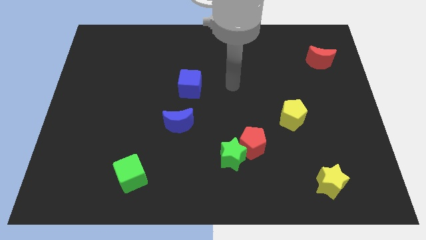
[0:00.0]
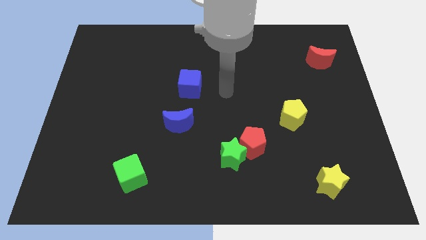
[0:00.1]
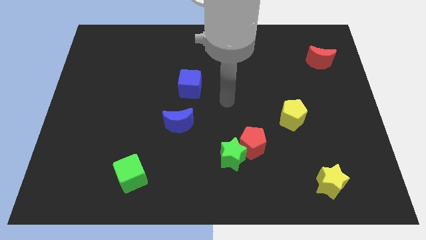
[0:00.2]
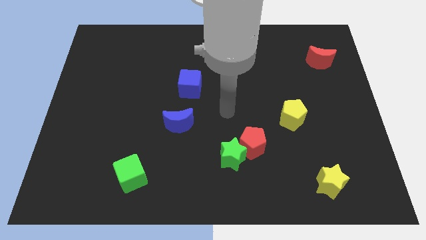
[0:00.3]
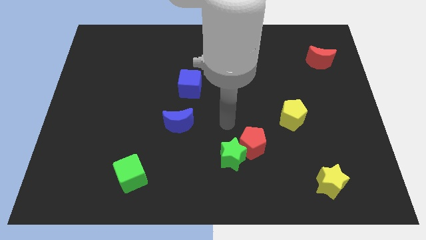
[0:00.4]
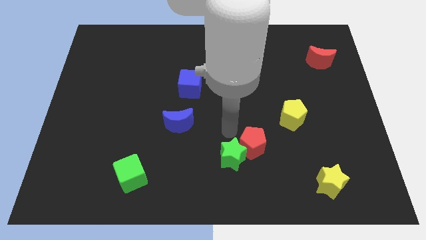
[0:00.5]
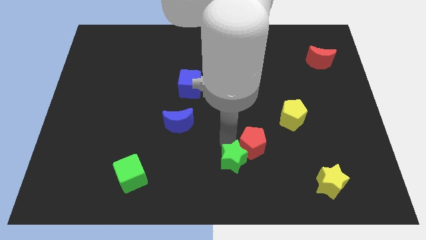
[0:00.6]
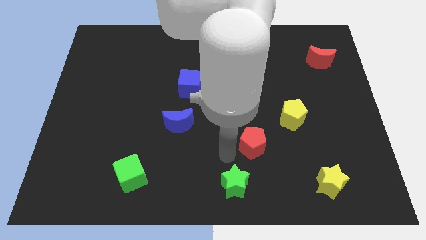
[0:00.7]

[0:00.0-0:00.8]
separate the red pentagon from the green star

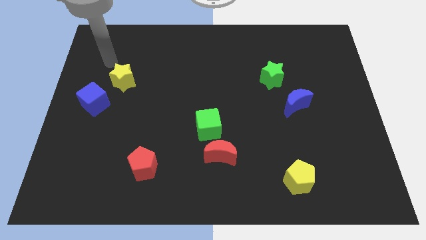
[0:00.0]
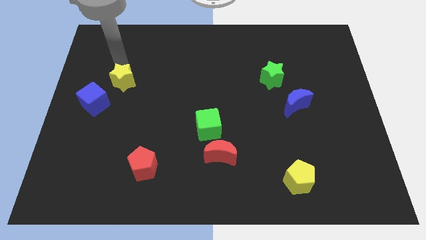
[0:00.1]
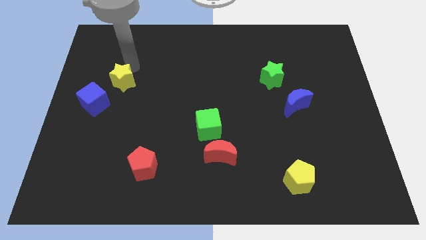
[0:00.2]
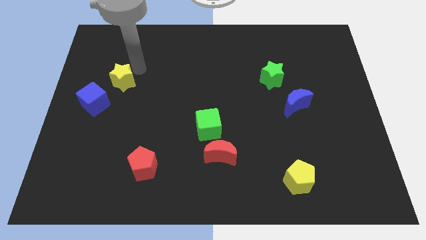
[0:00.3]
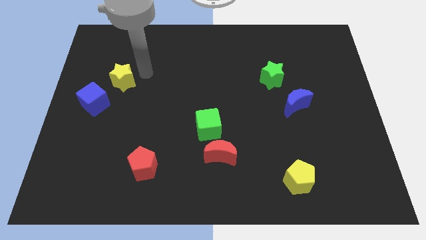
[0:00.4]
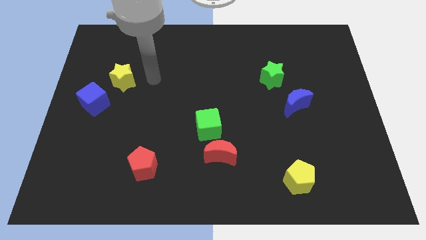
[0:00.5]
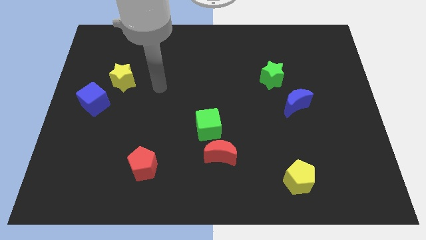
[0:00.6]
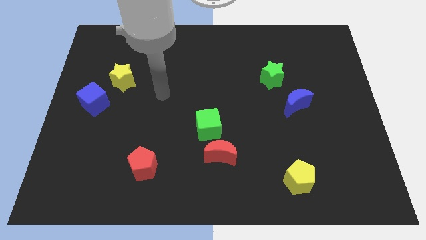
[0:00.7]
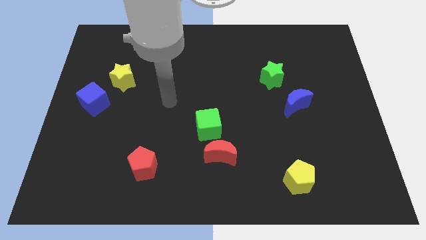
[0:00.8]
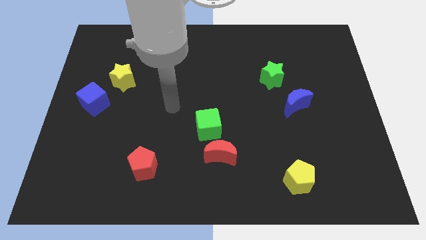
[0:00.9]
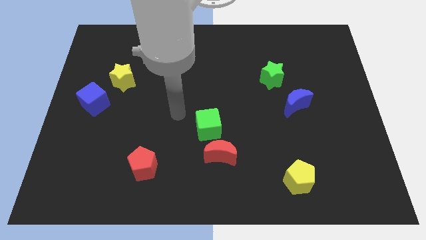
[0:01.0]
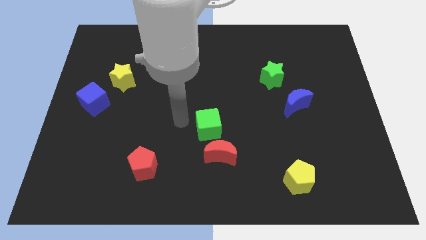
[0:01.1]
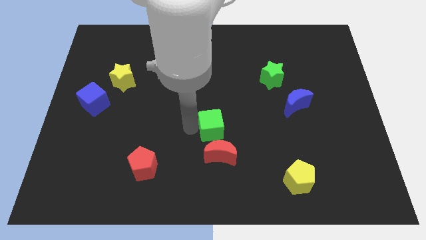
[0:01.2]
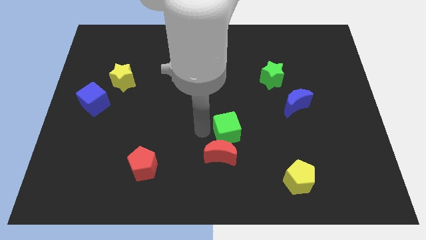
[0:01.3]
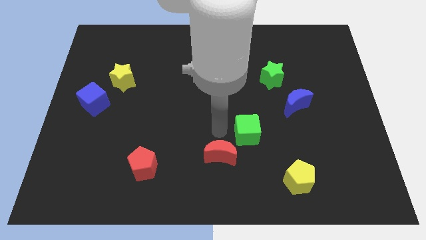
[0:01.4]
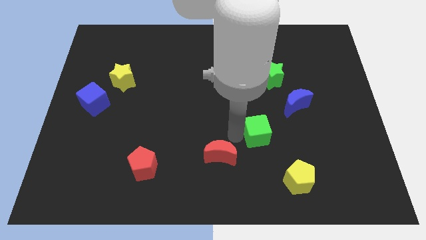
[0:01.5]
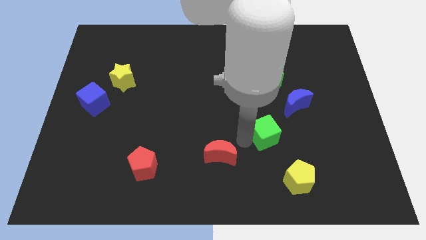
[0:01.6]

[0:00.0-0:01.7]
pull the red moon apart from the green cube

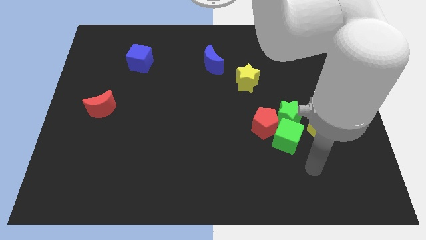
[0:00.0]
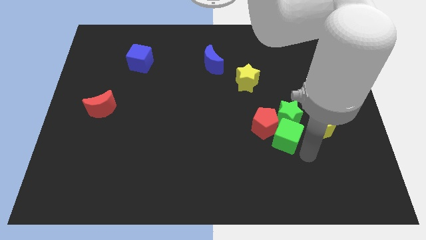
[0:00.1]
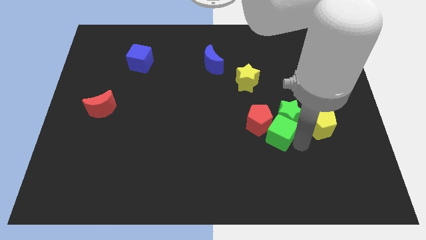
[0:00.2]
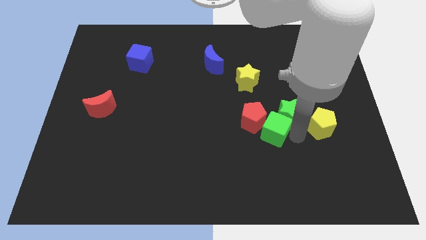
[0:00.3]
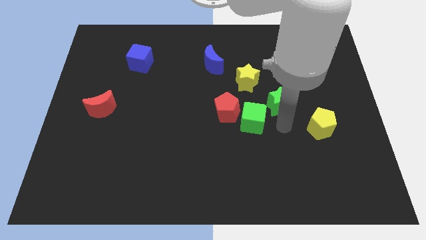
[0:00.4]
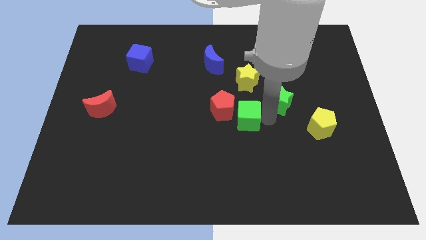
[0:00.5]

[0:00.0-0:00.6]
move the red pentagon away from the green cube and green star

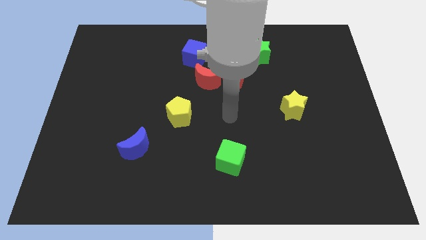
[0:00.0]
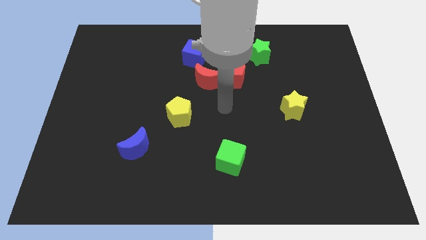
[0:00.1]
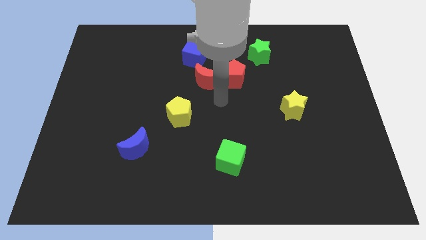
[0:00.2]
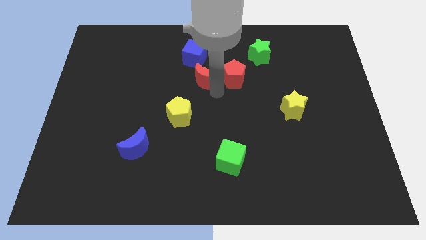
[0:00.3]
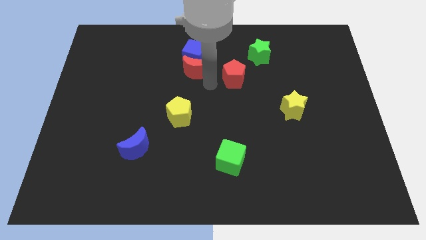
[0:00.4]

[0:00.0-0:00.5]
pull the red pentagon apart from the red moon

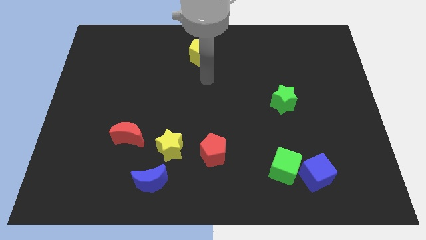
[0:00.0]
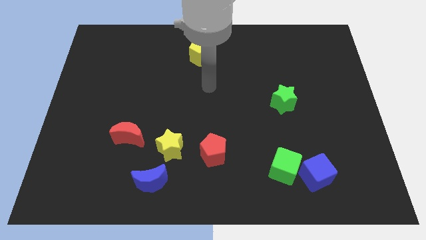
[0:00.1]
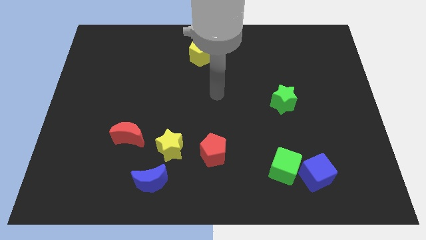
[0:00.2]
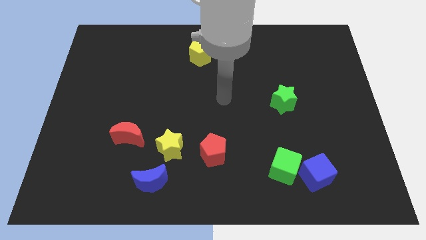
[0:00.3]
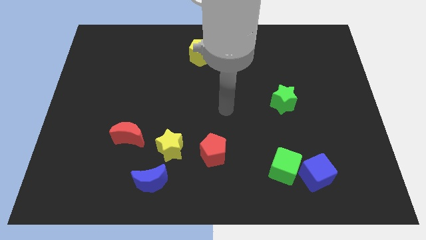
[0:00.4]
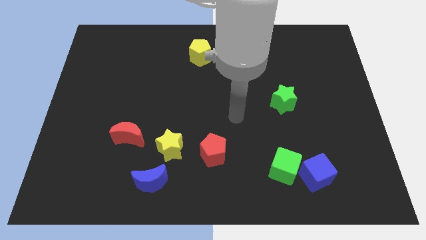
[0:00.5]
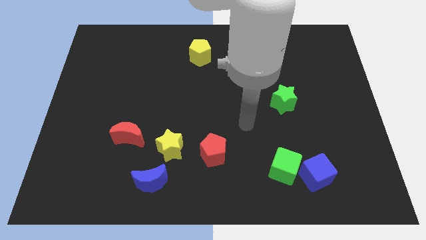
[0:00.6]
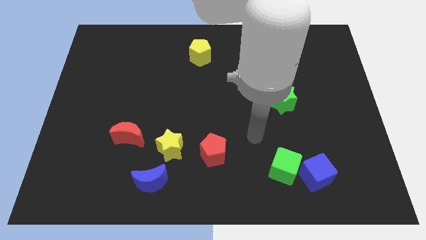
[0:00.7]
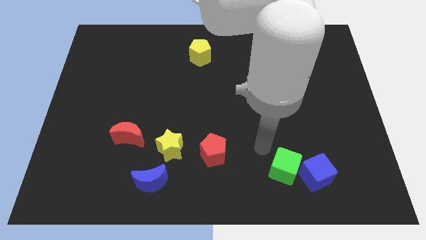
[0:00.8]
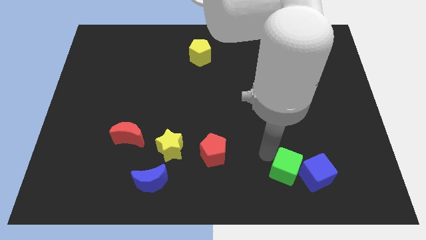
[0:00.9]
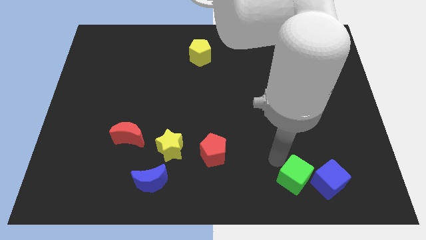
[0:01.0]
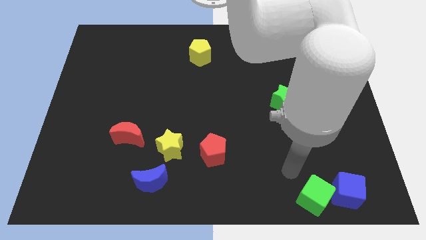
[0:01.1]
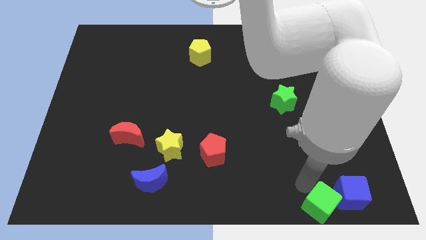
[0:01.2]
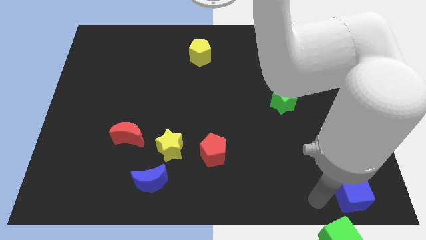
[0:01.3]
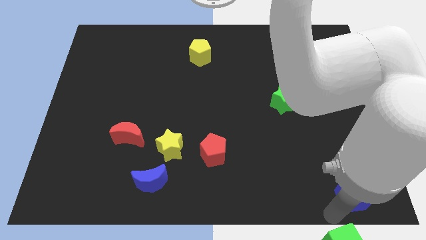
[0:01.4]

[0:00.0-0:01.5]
separate the blue cube from the green cube

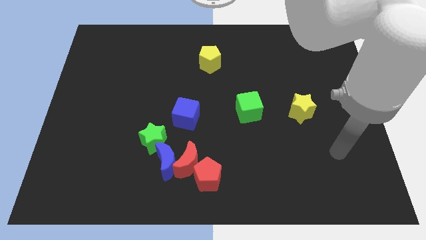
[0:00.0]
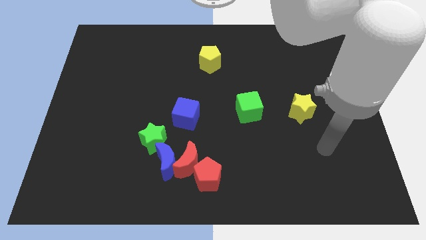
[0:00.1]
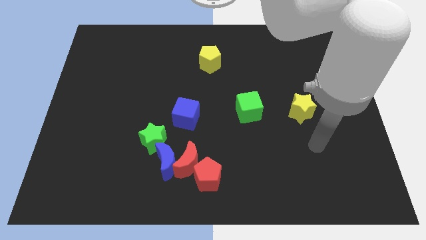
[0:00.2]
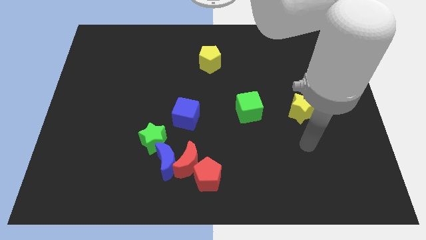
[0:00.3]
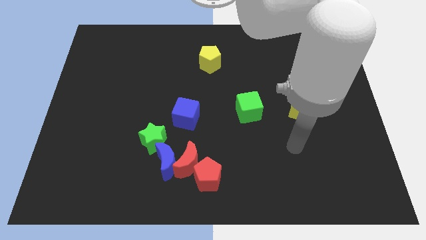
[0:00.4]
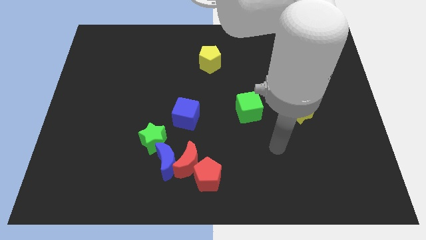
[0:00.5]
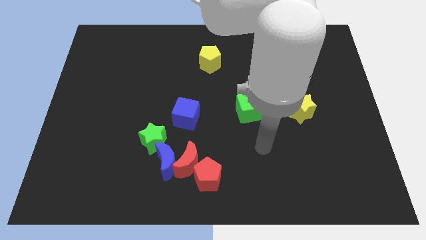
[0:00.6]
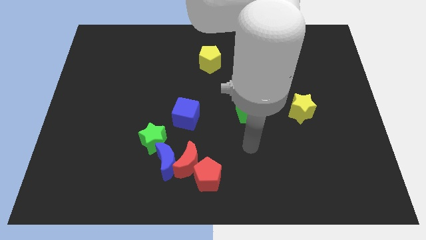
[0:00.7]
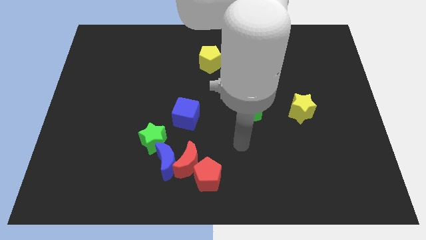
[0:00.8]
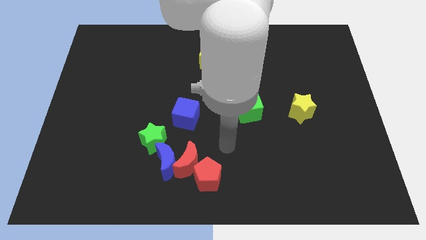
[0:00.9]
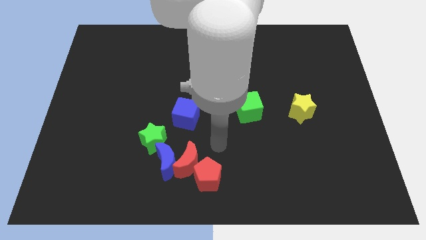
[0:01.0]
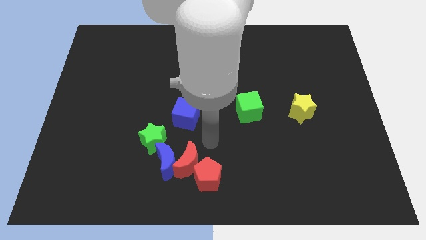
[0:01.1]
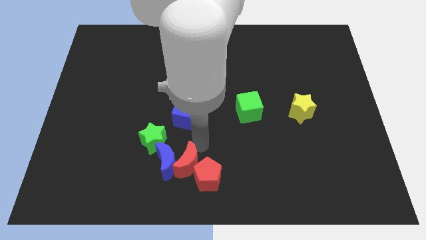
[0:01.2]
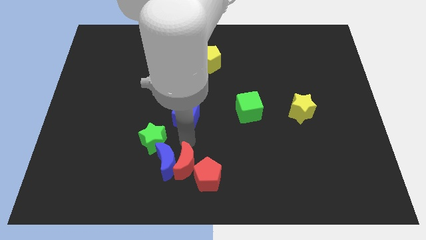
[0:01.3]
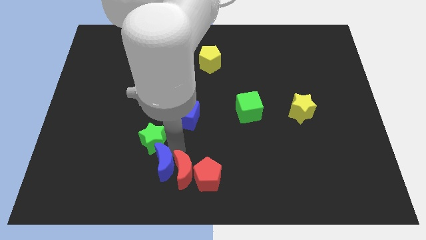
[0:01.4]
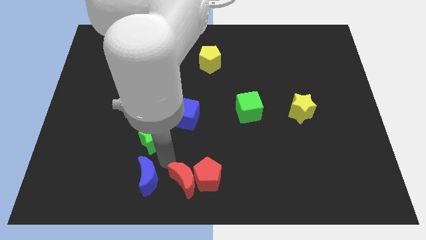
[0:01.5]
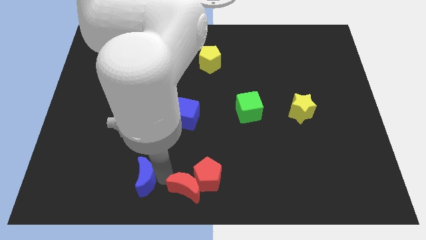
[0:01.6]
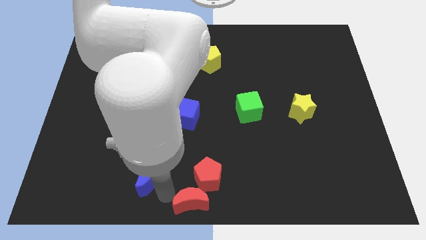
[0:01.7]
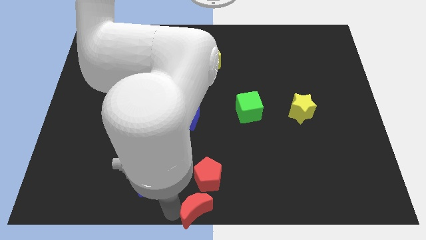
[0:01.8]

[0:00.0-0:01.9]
separate the red moon from the blue moon, red pentagon, and green star

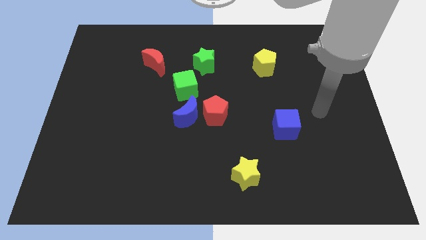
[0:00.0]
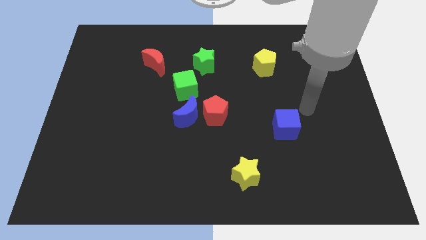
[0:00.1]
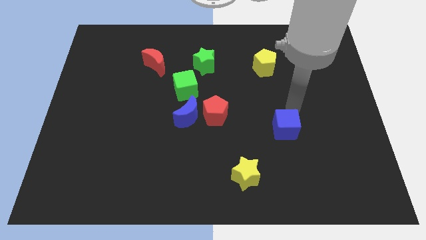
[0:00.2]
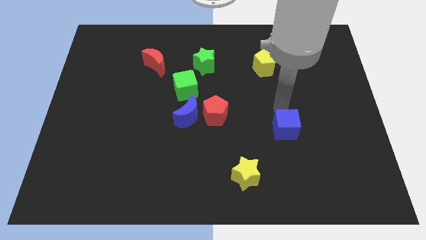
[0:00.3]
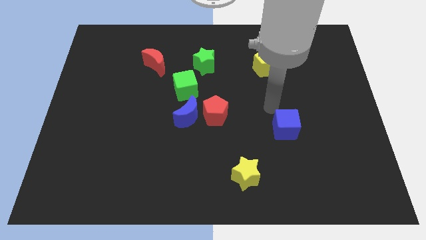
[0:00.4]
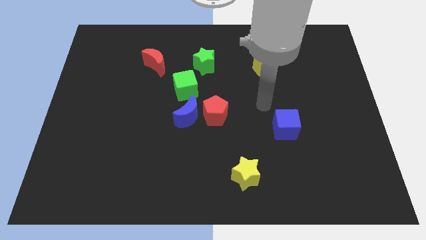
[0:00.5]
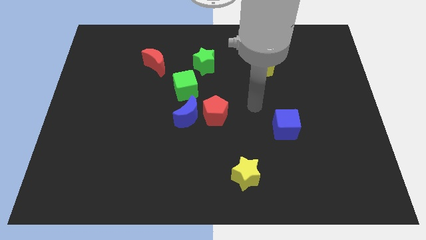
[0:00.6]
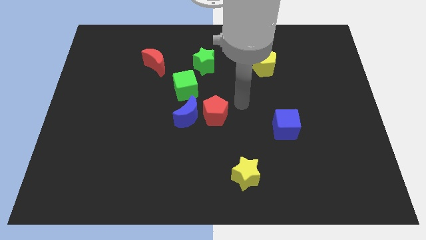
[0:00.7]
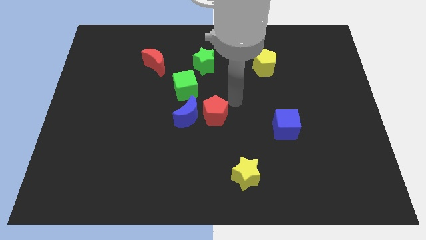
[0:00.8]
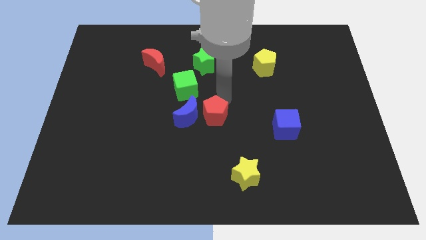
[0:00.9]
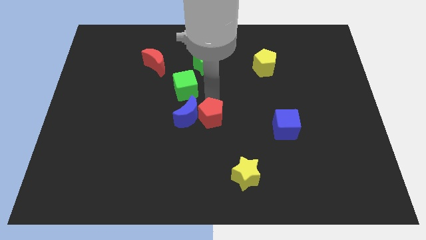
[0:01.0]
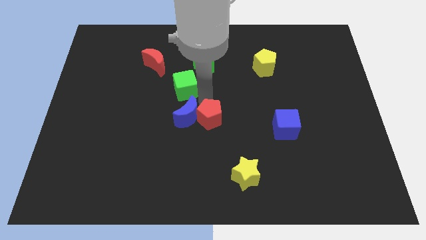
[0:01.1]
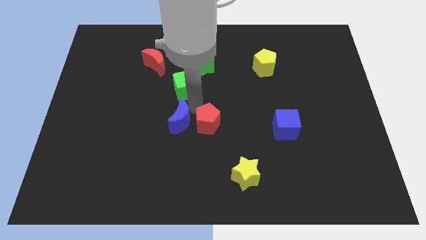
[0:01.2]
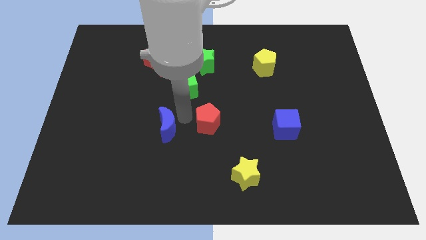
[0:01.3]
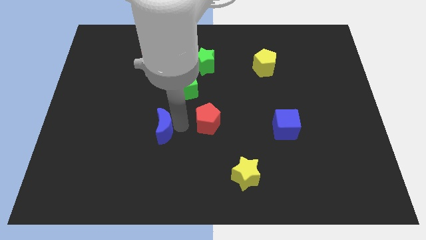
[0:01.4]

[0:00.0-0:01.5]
pull the red pentagon apart from the blue moon

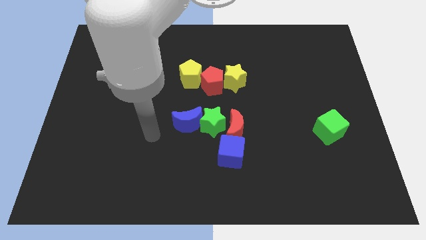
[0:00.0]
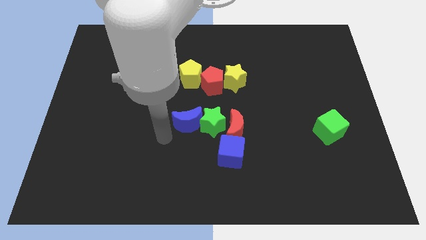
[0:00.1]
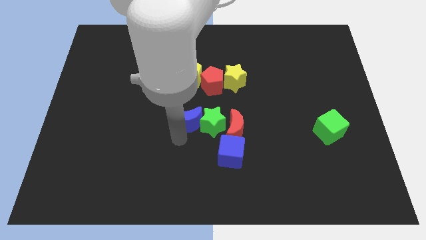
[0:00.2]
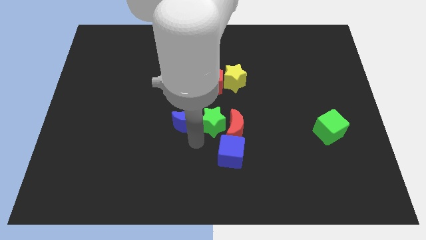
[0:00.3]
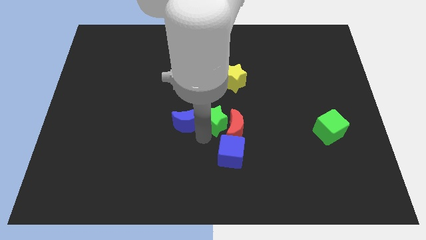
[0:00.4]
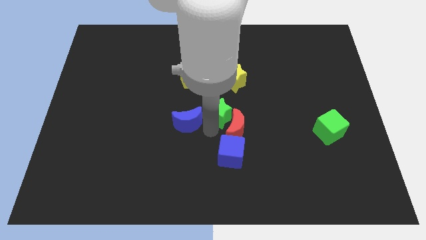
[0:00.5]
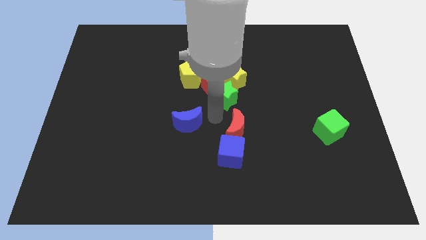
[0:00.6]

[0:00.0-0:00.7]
pull the blue moon apart from the green star
